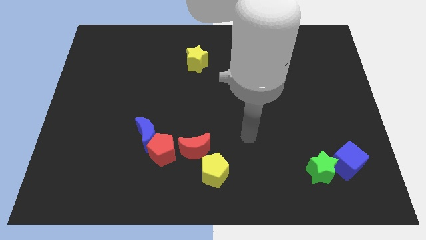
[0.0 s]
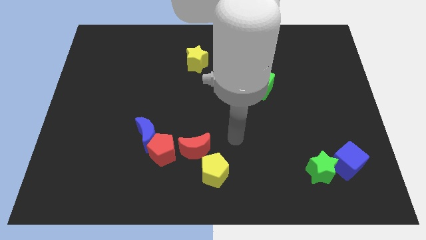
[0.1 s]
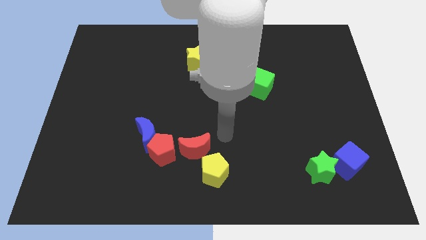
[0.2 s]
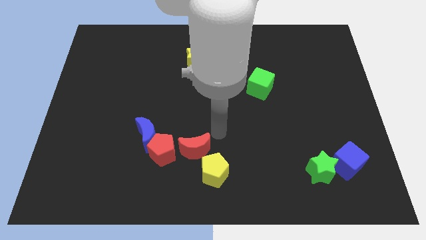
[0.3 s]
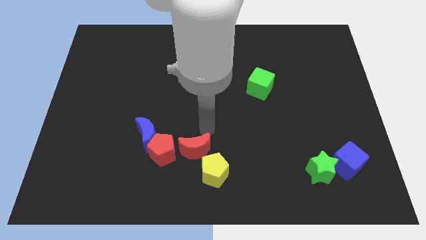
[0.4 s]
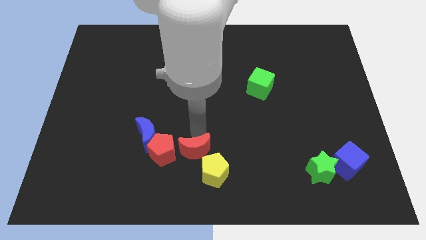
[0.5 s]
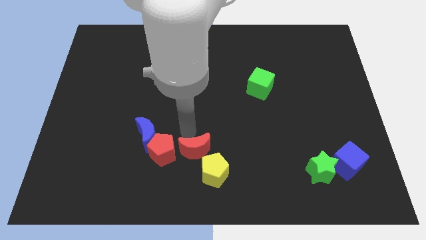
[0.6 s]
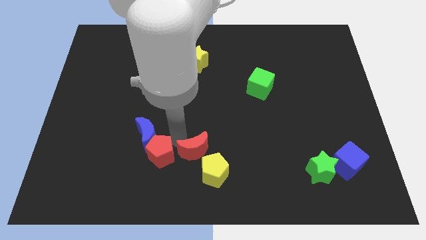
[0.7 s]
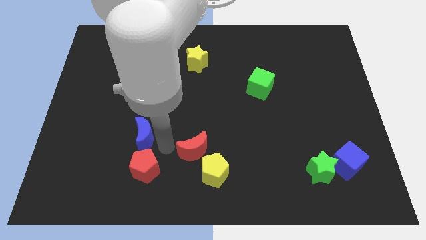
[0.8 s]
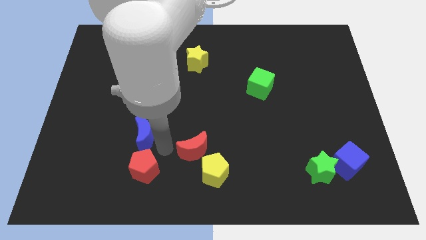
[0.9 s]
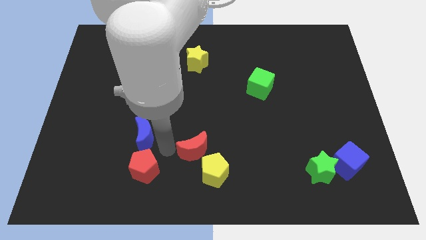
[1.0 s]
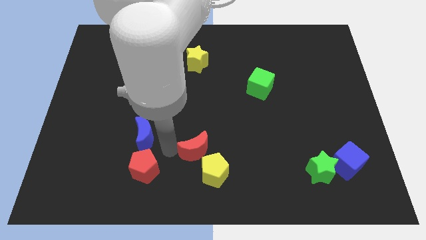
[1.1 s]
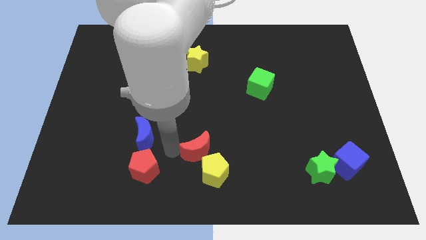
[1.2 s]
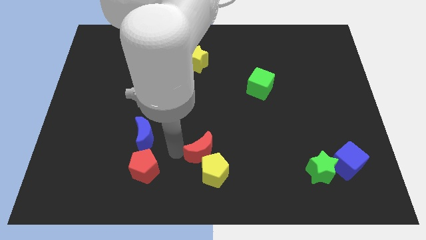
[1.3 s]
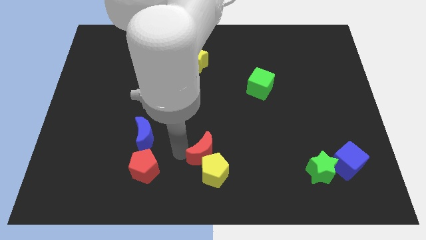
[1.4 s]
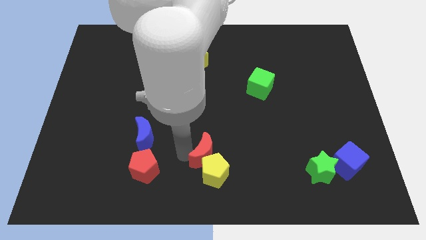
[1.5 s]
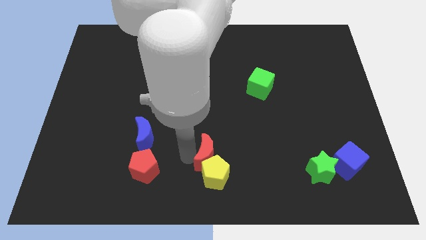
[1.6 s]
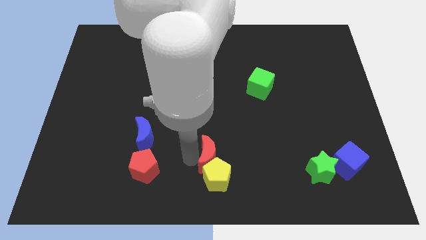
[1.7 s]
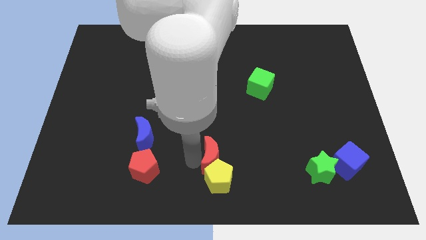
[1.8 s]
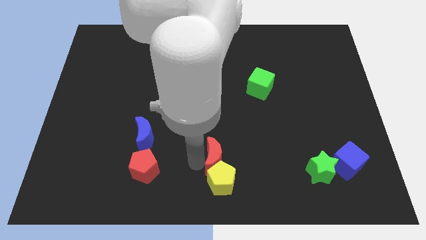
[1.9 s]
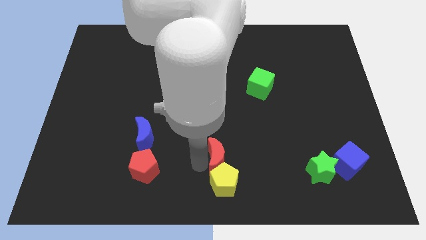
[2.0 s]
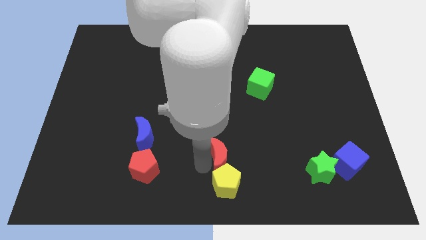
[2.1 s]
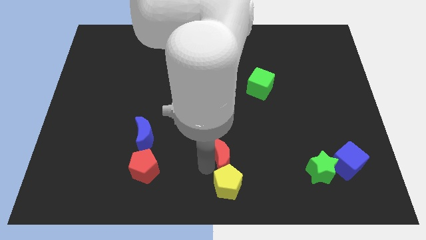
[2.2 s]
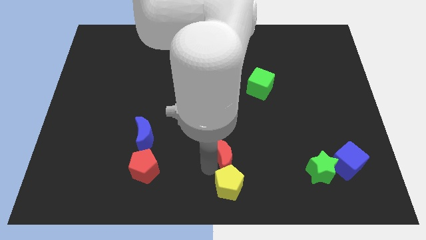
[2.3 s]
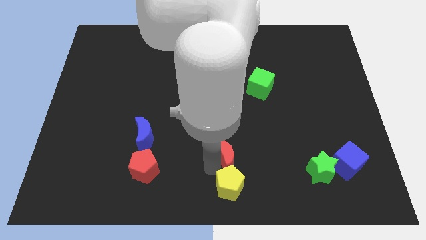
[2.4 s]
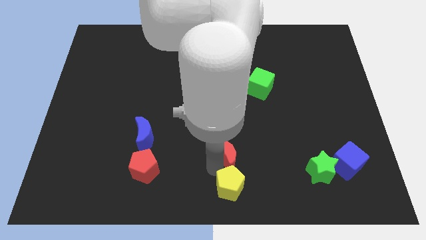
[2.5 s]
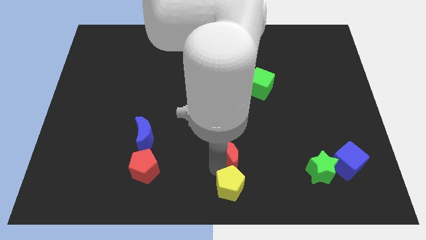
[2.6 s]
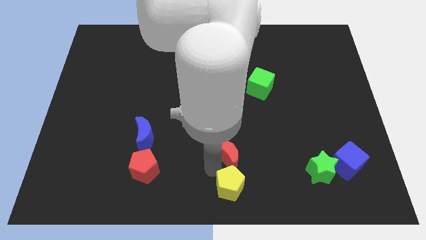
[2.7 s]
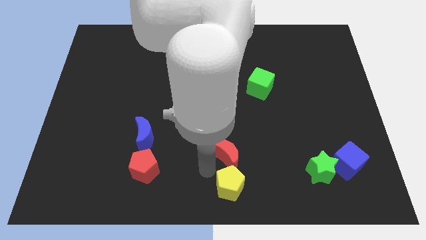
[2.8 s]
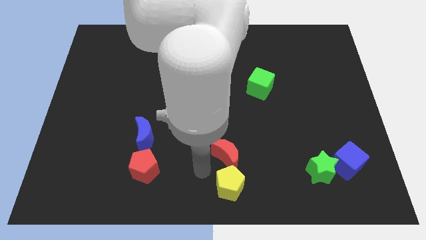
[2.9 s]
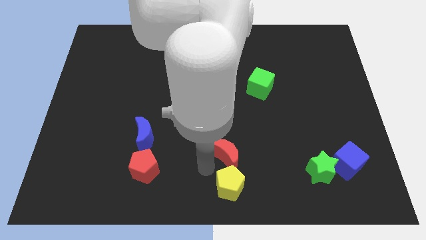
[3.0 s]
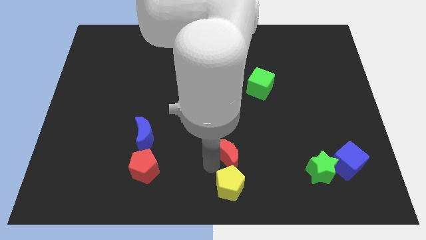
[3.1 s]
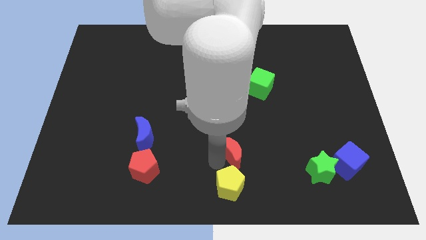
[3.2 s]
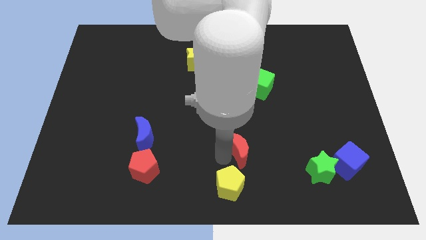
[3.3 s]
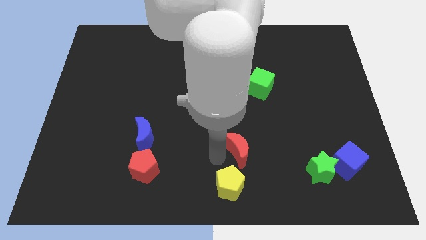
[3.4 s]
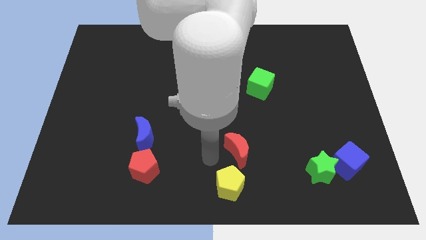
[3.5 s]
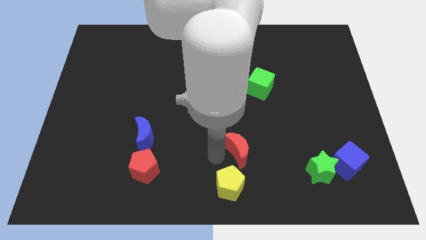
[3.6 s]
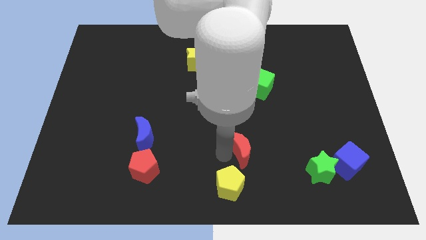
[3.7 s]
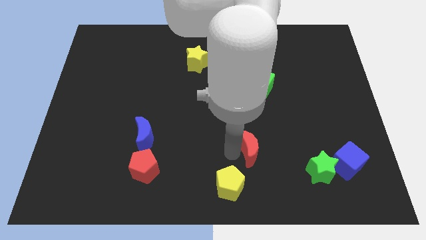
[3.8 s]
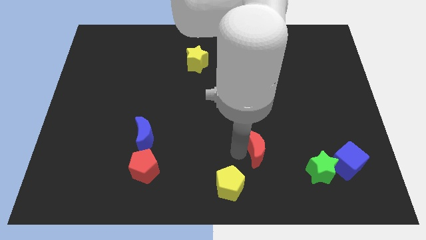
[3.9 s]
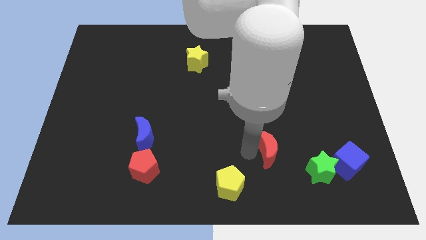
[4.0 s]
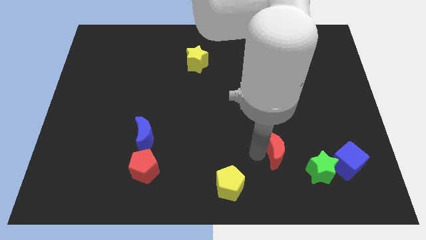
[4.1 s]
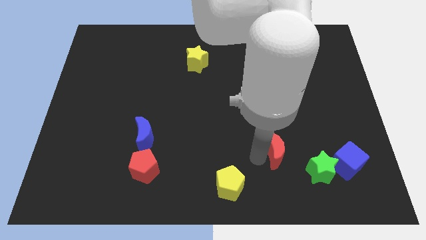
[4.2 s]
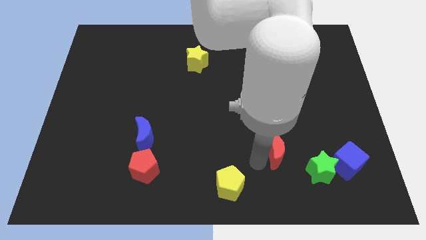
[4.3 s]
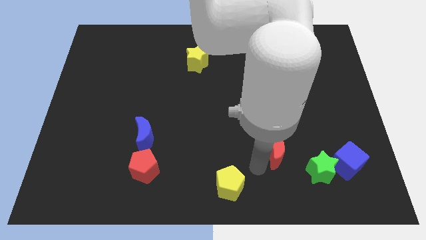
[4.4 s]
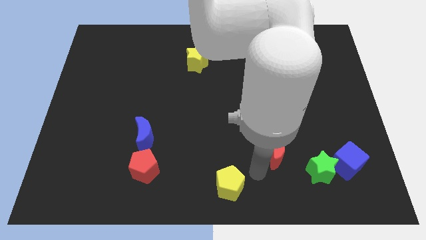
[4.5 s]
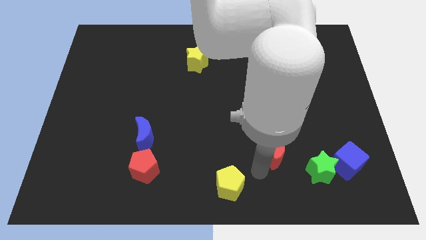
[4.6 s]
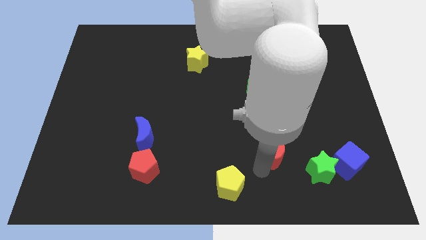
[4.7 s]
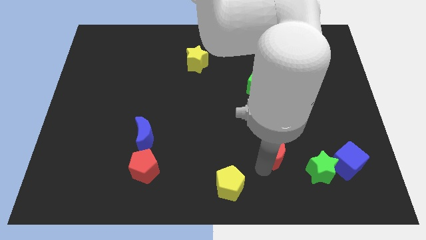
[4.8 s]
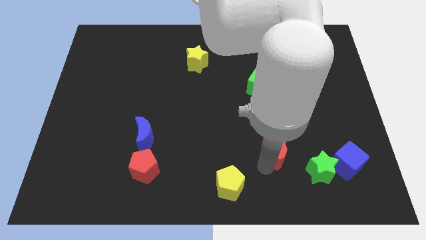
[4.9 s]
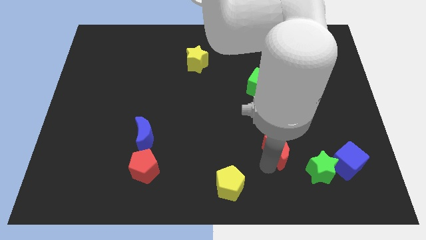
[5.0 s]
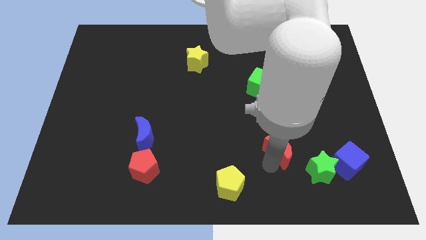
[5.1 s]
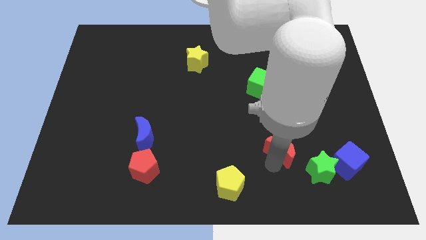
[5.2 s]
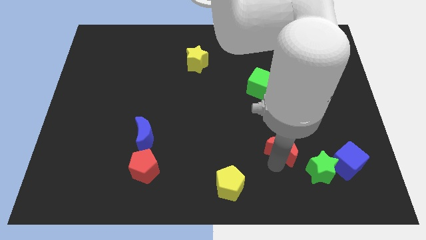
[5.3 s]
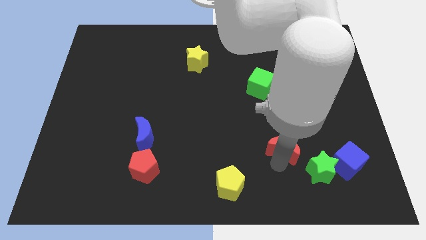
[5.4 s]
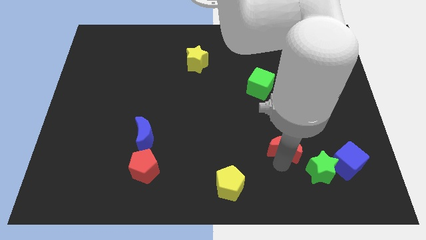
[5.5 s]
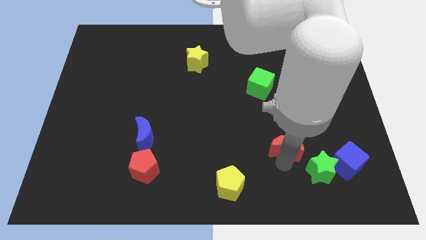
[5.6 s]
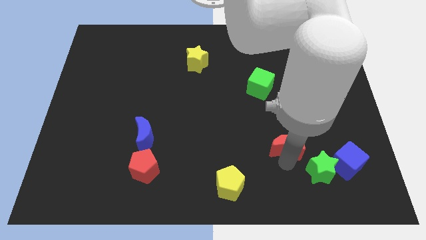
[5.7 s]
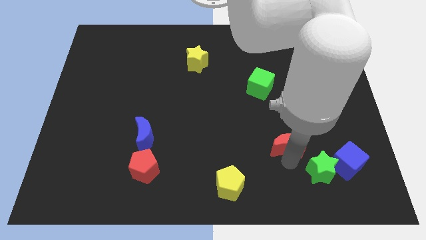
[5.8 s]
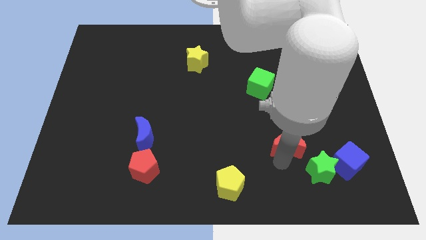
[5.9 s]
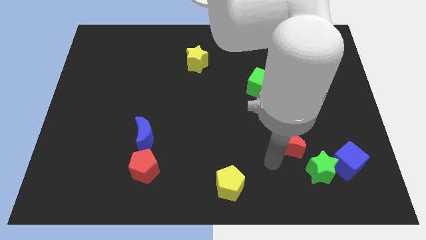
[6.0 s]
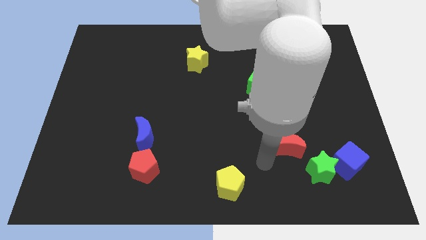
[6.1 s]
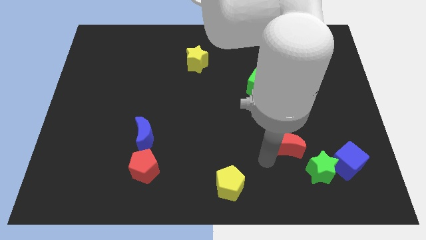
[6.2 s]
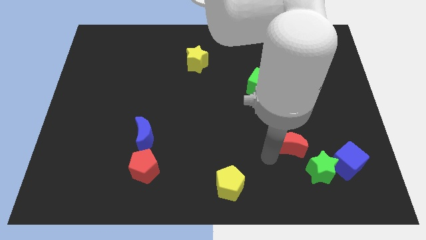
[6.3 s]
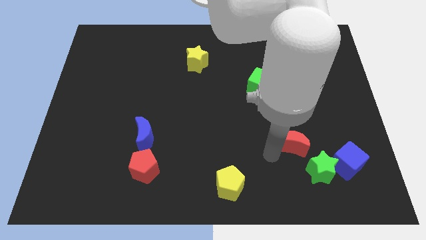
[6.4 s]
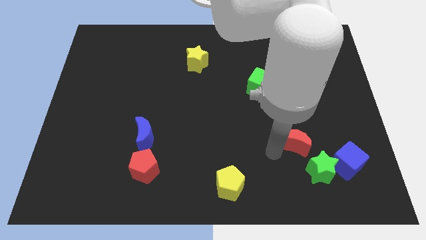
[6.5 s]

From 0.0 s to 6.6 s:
put the red moon to the top side of the green star
